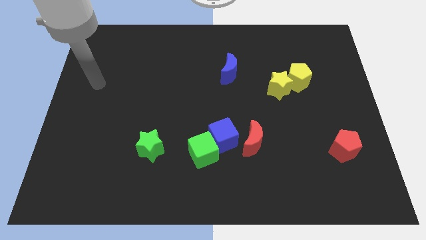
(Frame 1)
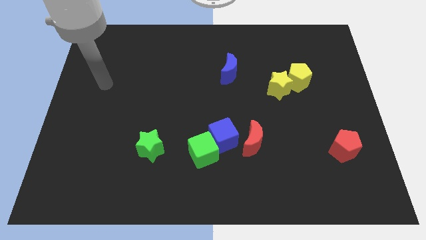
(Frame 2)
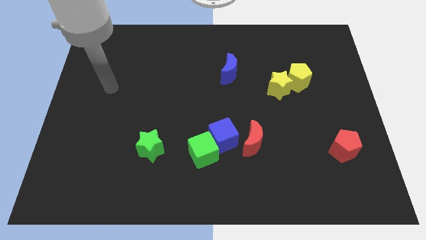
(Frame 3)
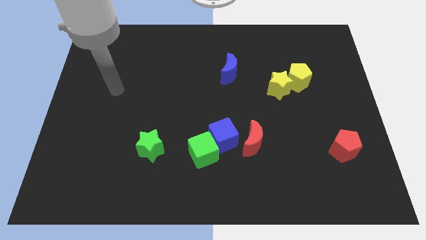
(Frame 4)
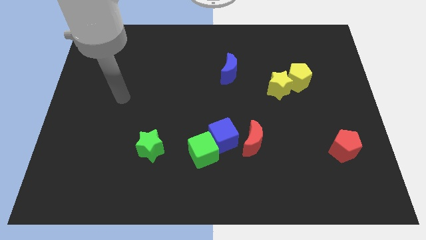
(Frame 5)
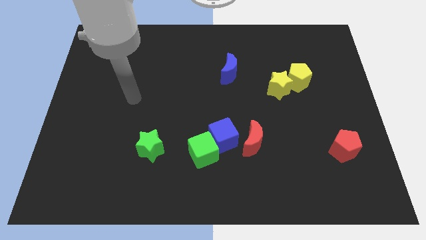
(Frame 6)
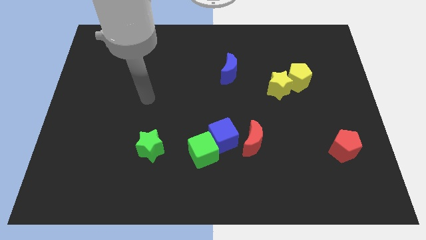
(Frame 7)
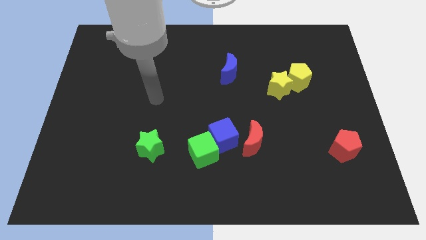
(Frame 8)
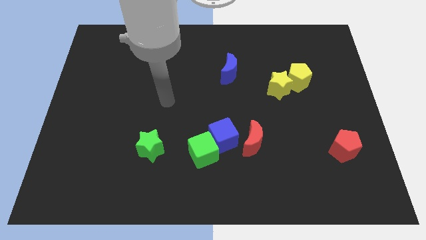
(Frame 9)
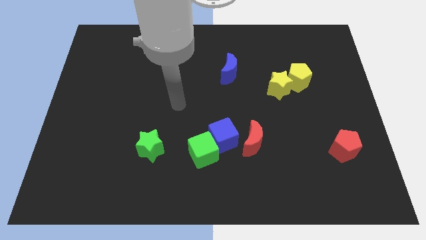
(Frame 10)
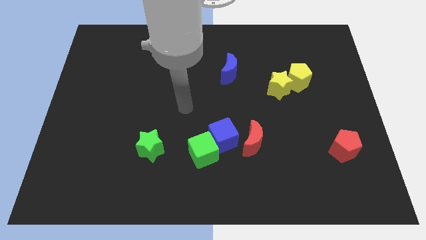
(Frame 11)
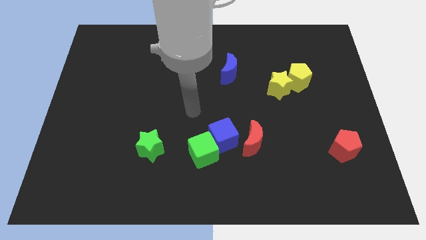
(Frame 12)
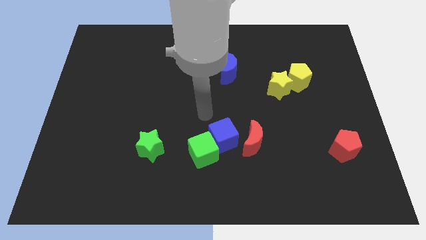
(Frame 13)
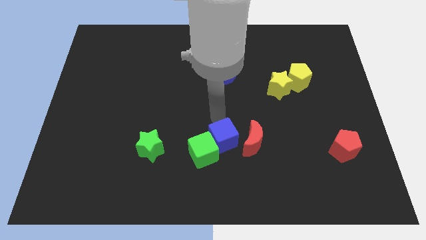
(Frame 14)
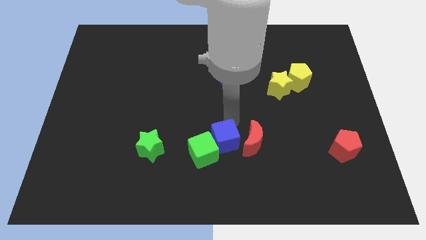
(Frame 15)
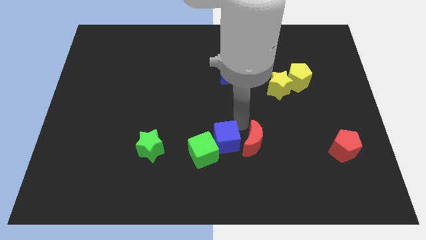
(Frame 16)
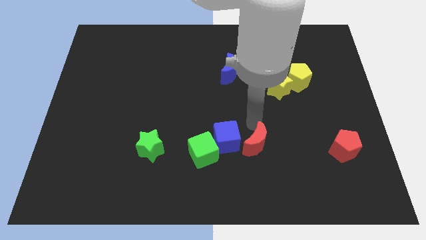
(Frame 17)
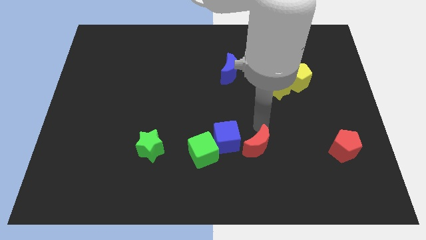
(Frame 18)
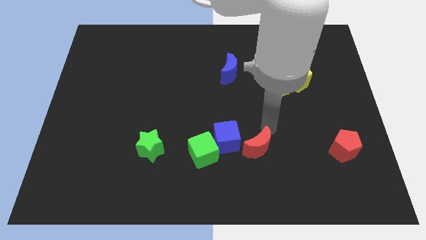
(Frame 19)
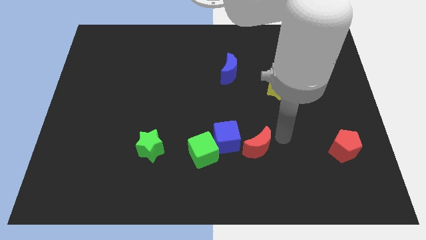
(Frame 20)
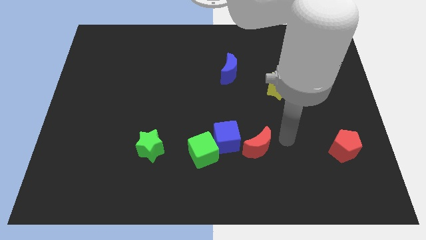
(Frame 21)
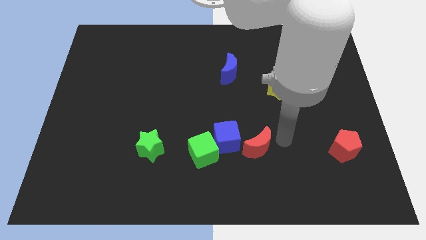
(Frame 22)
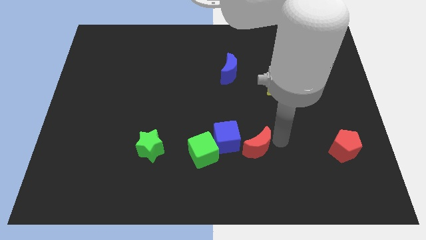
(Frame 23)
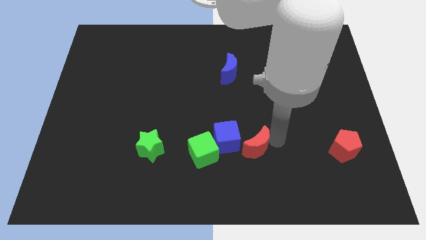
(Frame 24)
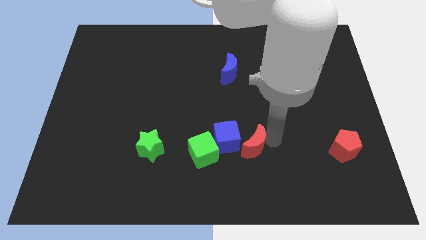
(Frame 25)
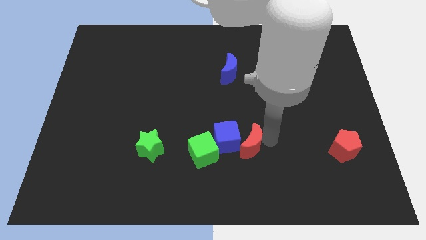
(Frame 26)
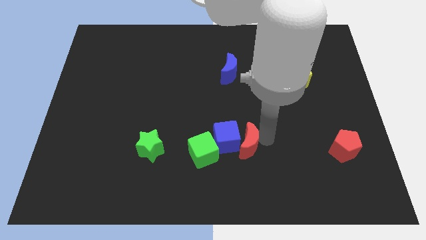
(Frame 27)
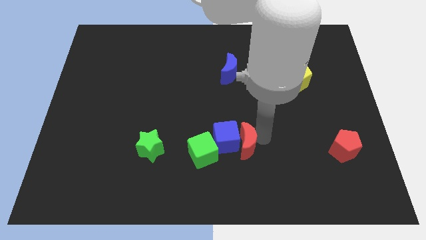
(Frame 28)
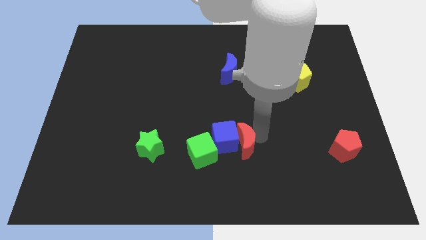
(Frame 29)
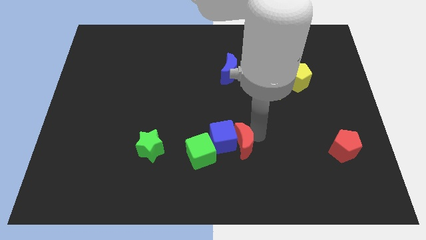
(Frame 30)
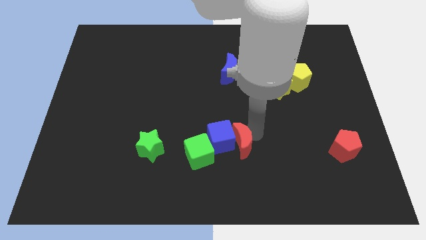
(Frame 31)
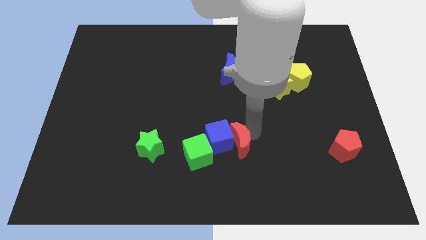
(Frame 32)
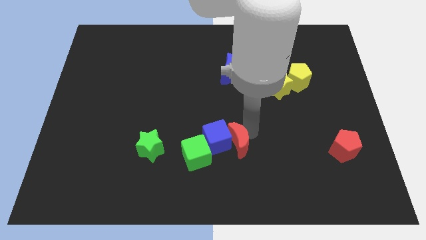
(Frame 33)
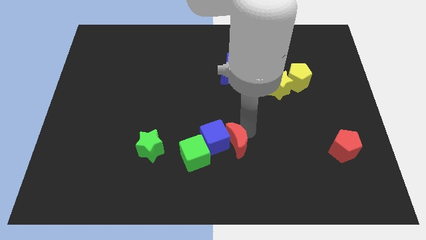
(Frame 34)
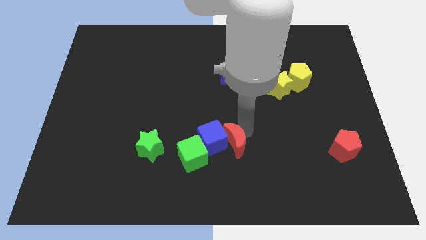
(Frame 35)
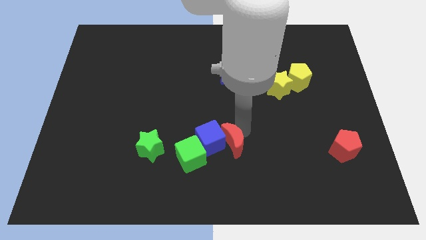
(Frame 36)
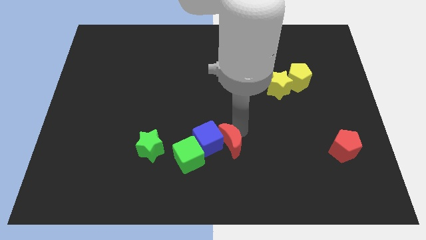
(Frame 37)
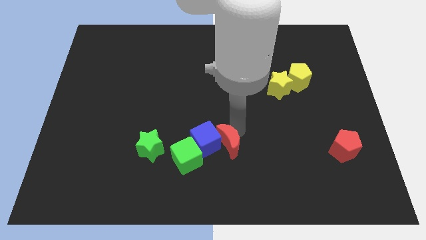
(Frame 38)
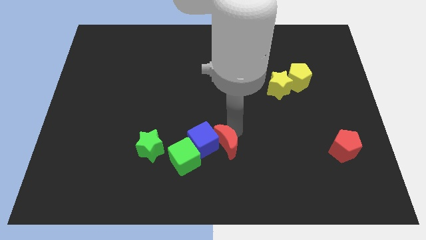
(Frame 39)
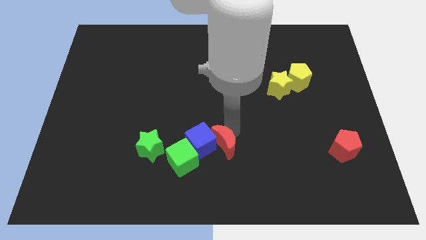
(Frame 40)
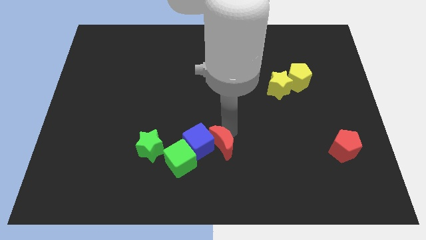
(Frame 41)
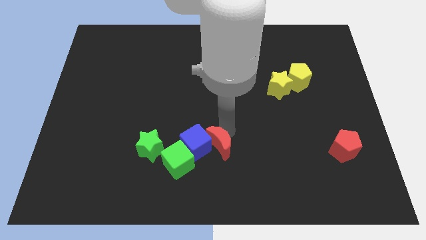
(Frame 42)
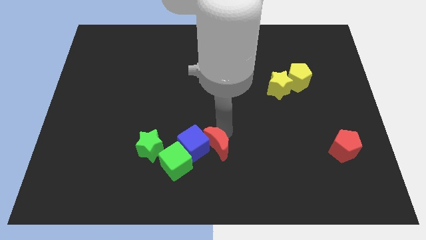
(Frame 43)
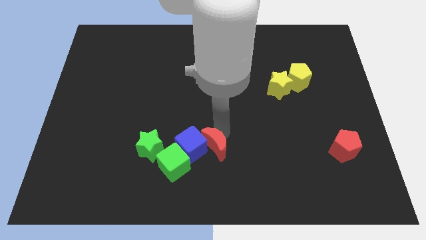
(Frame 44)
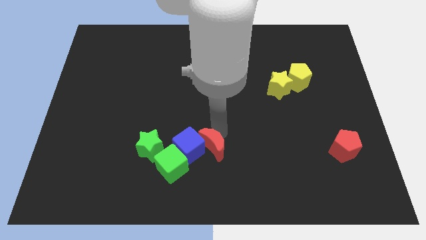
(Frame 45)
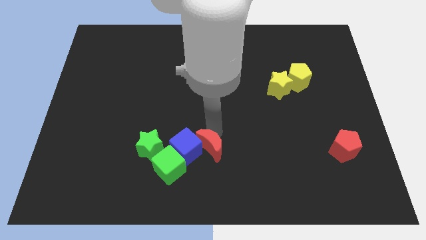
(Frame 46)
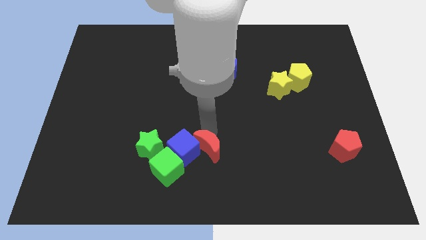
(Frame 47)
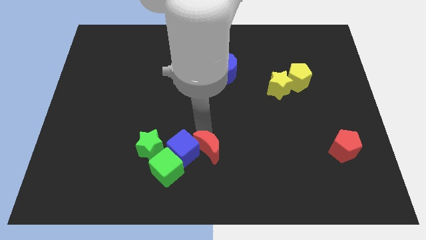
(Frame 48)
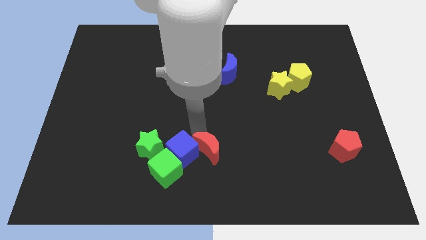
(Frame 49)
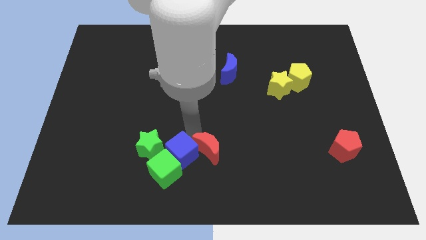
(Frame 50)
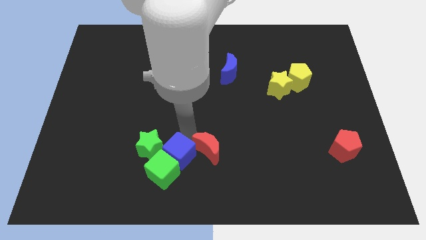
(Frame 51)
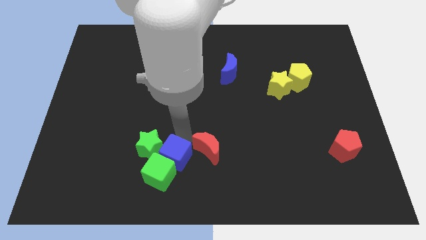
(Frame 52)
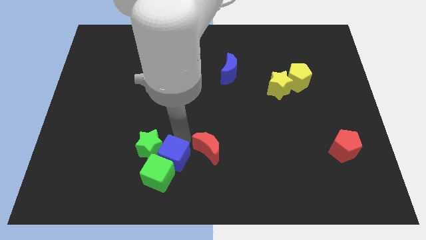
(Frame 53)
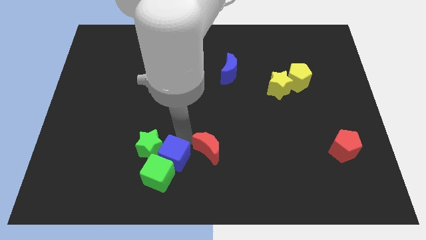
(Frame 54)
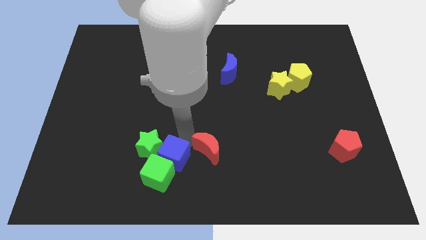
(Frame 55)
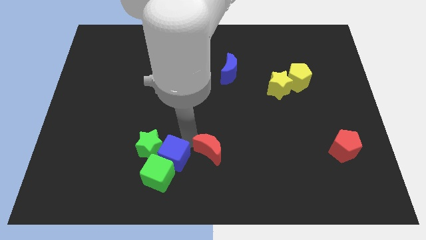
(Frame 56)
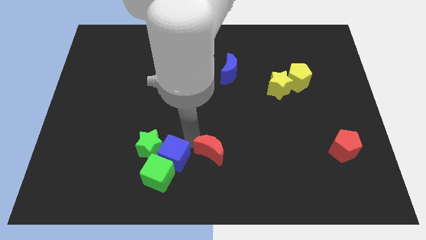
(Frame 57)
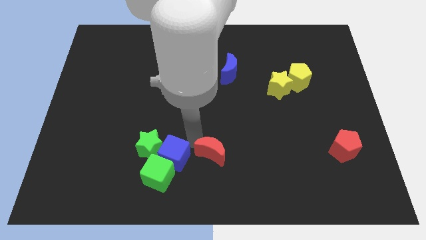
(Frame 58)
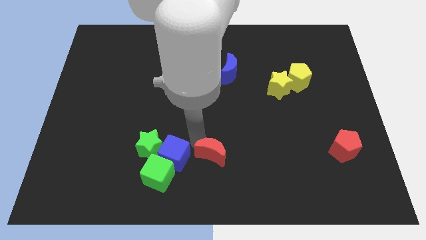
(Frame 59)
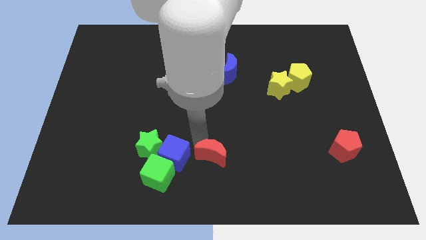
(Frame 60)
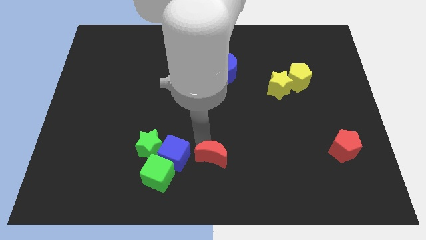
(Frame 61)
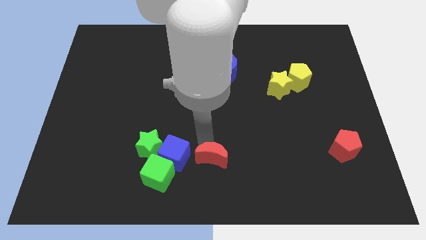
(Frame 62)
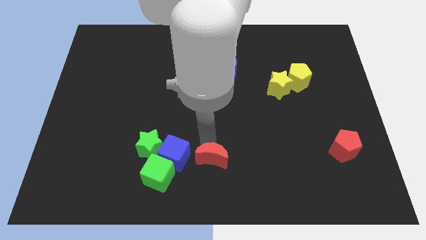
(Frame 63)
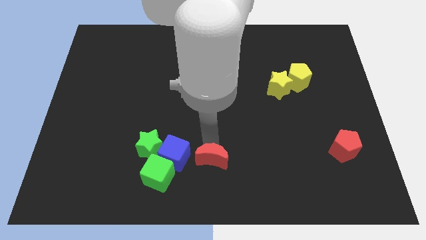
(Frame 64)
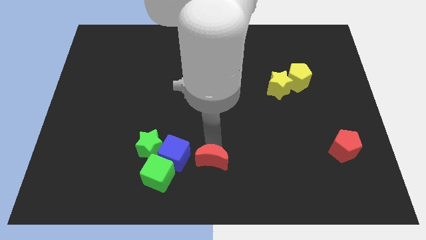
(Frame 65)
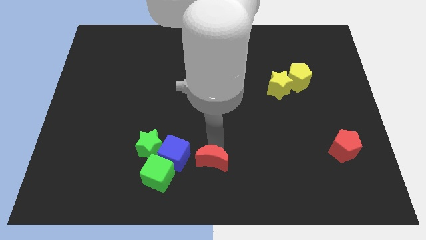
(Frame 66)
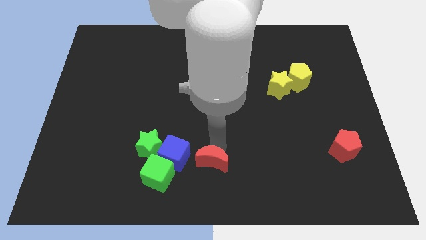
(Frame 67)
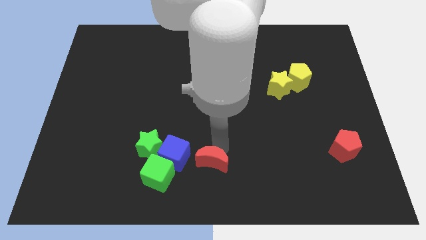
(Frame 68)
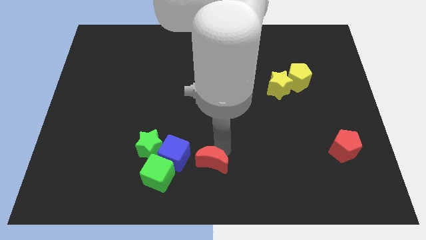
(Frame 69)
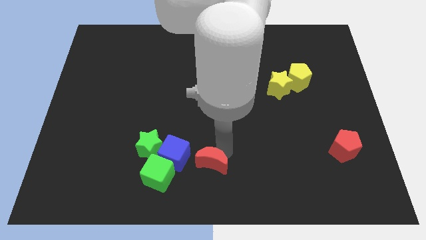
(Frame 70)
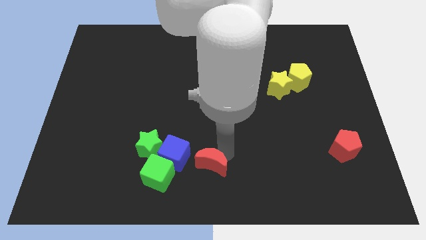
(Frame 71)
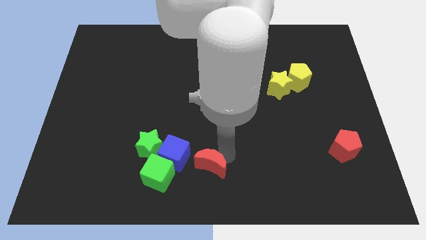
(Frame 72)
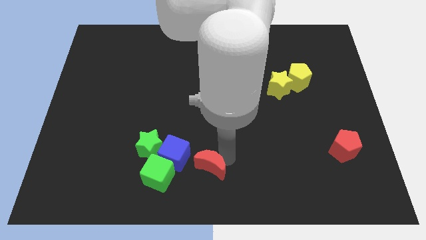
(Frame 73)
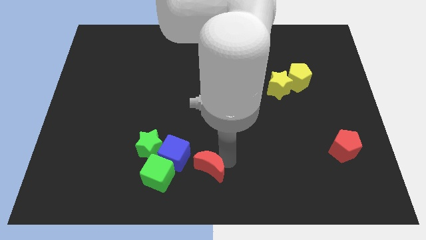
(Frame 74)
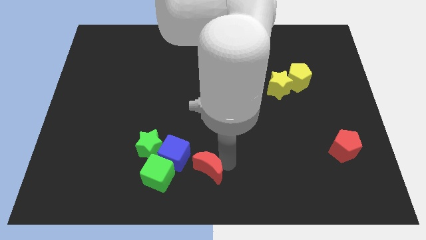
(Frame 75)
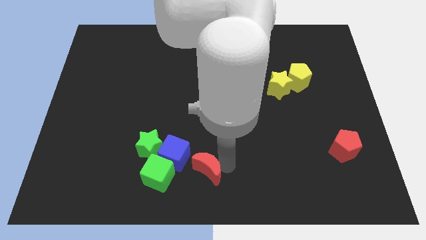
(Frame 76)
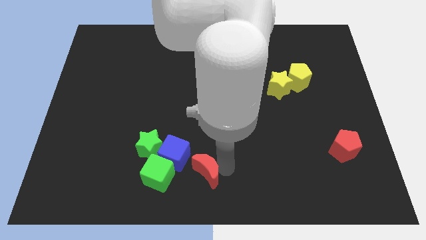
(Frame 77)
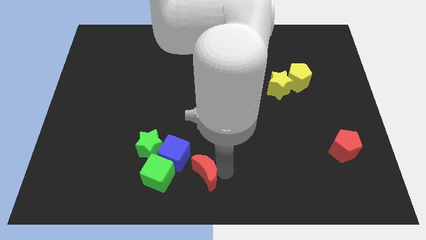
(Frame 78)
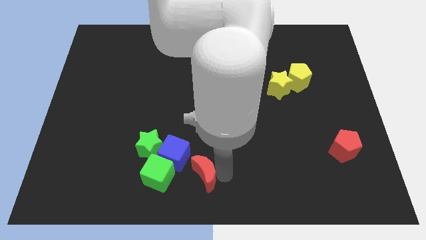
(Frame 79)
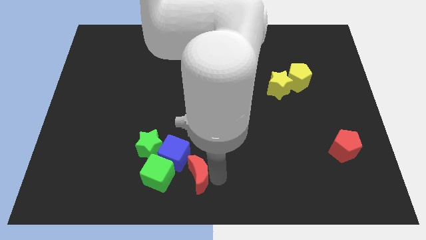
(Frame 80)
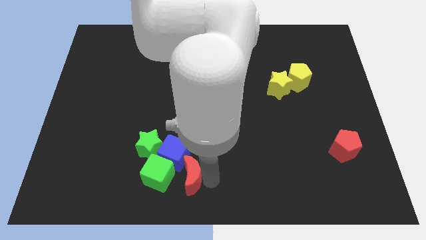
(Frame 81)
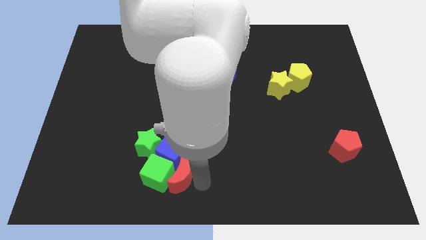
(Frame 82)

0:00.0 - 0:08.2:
push the red moon next to the green cube
